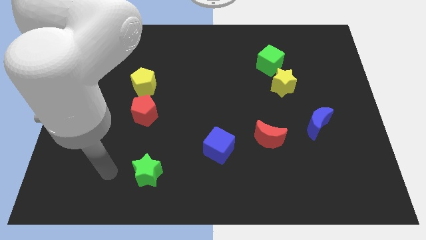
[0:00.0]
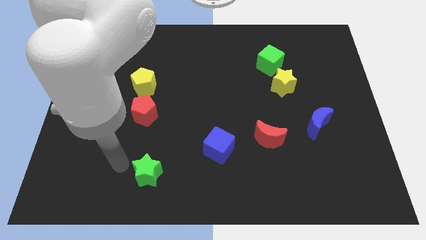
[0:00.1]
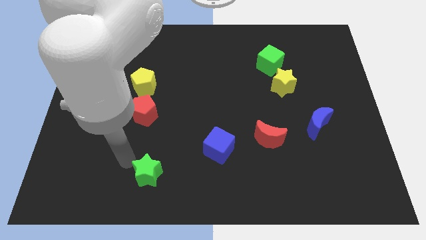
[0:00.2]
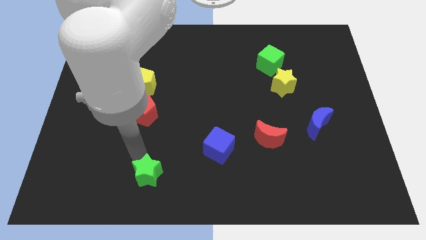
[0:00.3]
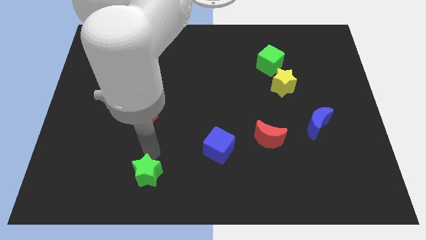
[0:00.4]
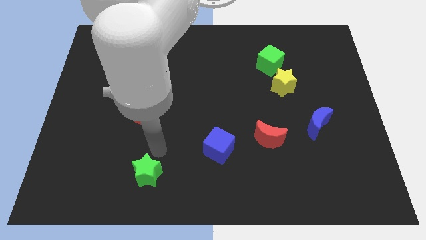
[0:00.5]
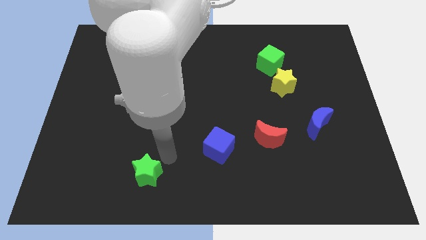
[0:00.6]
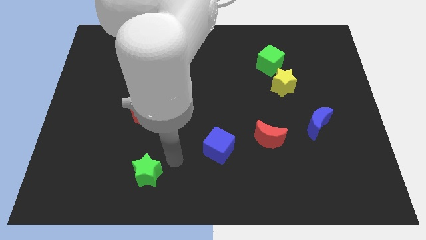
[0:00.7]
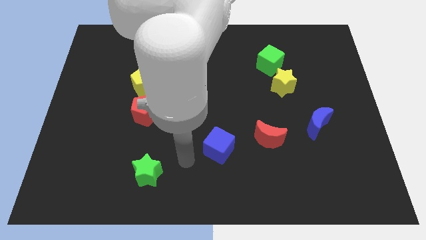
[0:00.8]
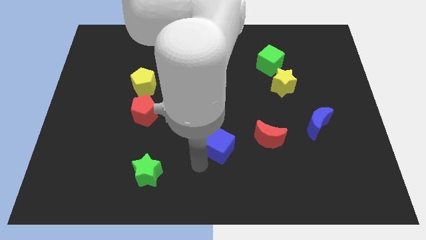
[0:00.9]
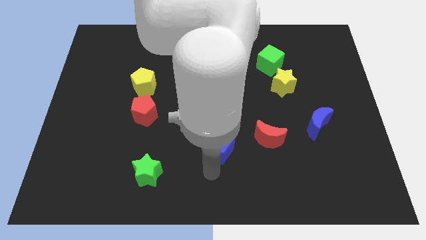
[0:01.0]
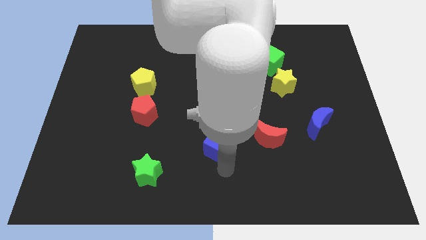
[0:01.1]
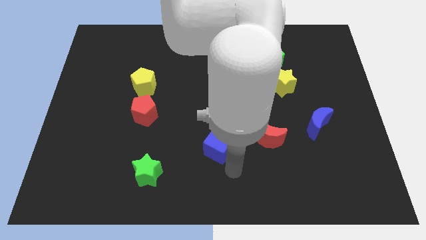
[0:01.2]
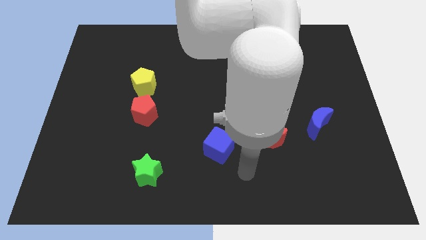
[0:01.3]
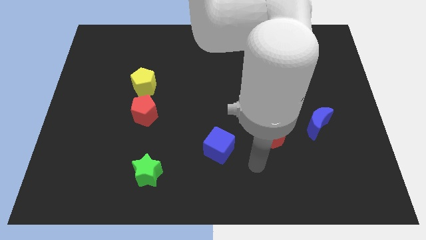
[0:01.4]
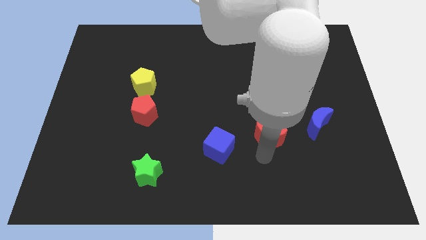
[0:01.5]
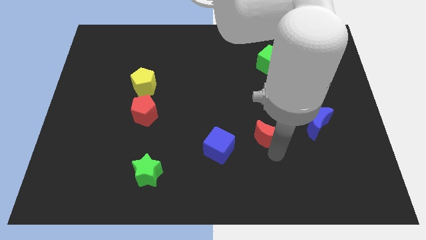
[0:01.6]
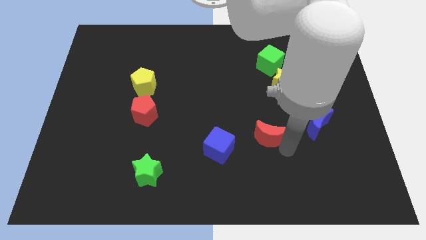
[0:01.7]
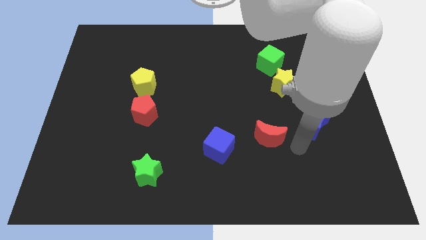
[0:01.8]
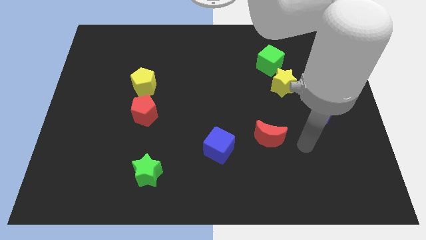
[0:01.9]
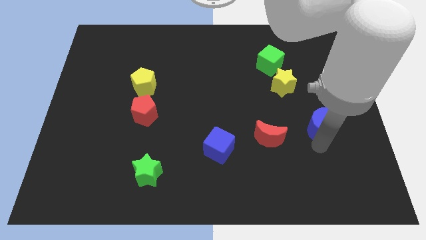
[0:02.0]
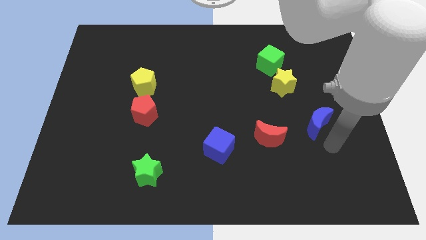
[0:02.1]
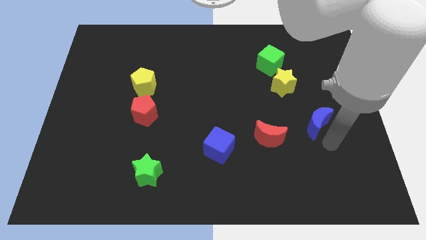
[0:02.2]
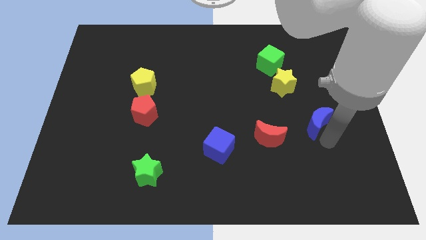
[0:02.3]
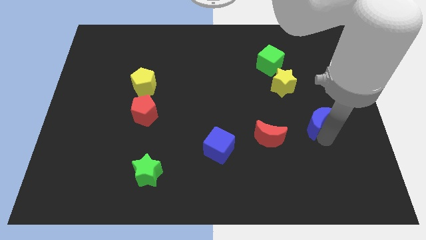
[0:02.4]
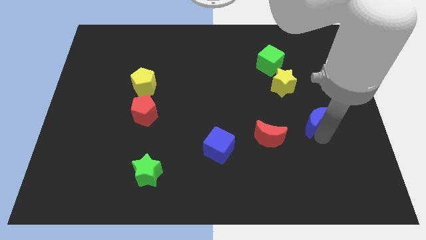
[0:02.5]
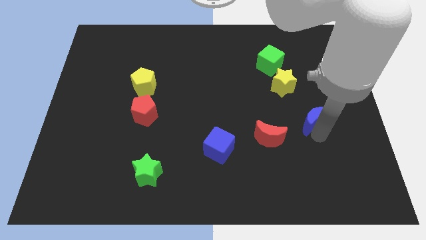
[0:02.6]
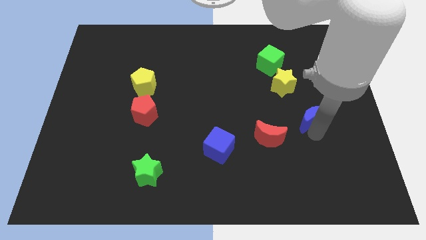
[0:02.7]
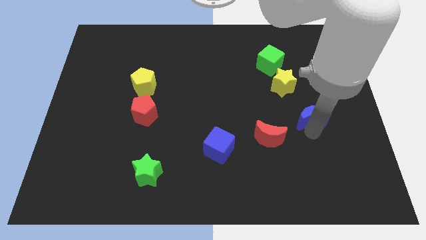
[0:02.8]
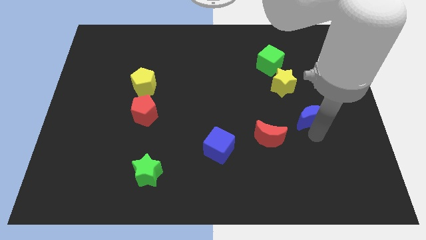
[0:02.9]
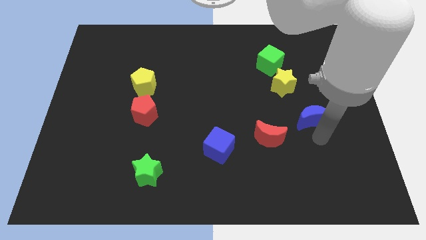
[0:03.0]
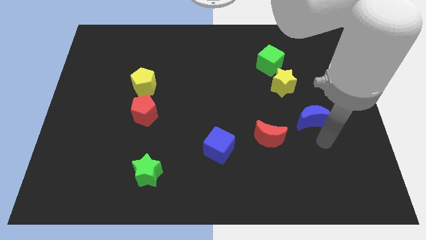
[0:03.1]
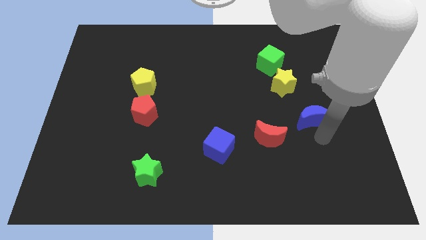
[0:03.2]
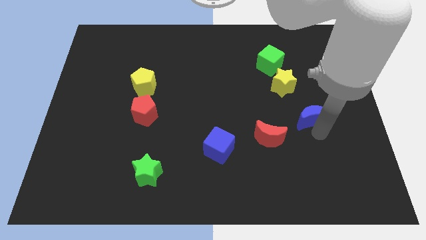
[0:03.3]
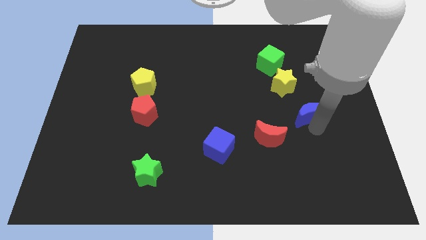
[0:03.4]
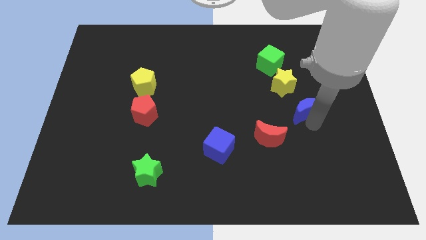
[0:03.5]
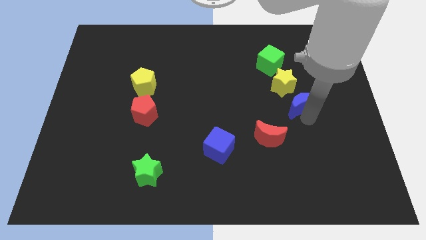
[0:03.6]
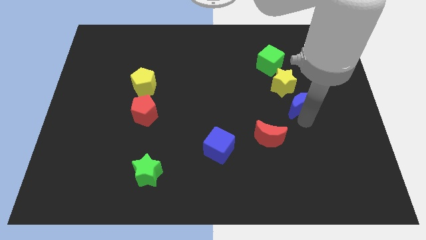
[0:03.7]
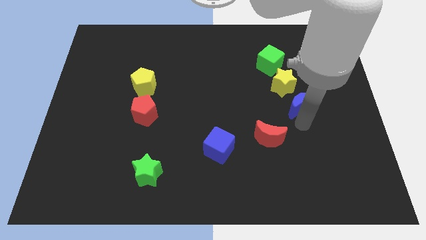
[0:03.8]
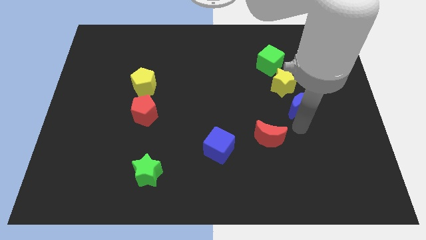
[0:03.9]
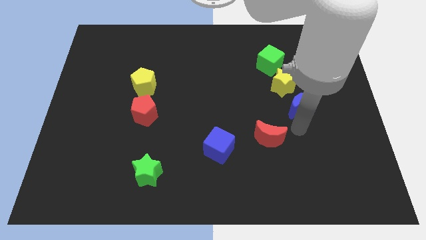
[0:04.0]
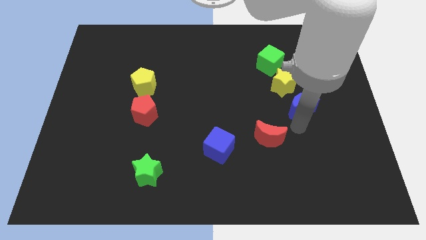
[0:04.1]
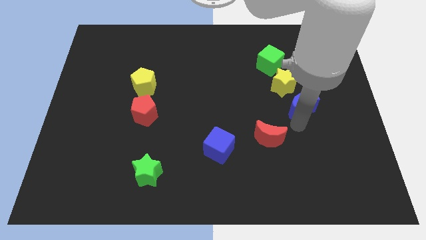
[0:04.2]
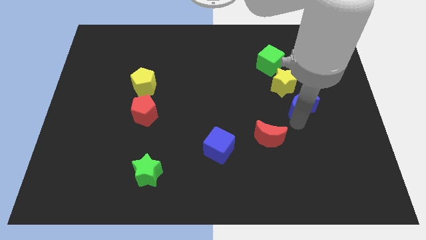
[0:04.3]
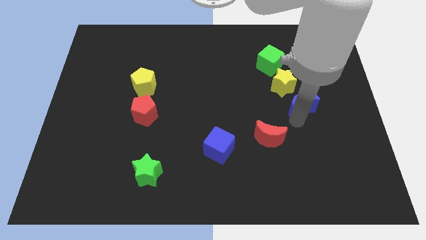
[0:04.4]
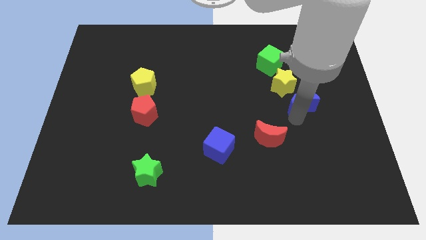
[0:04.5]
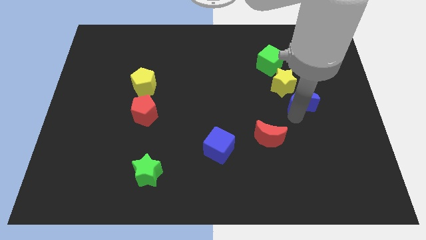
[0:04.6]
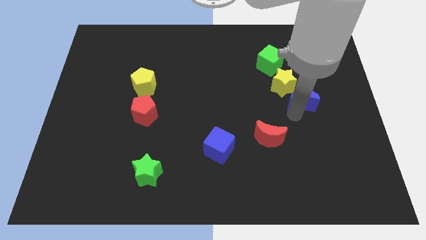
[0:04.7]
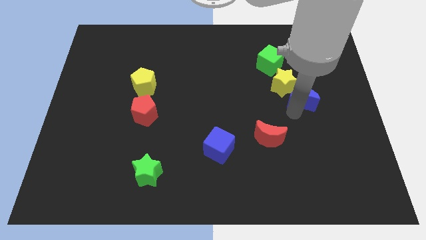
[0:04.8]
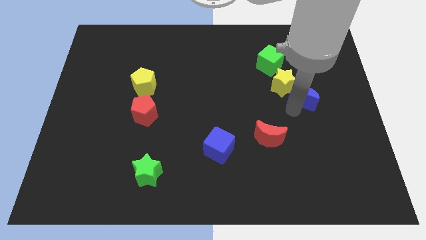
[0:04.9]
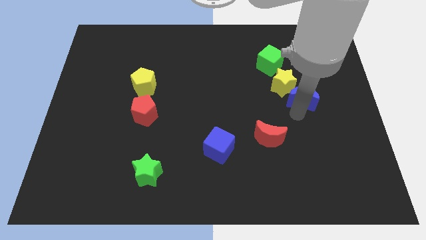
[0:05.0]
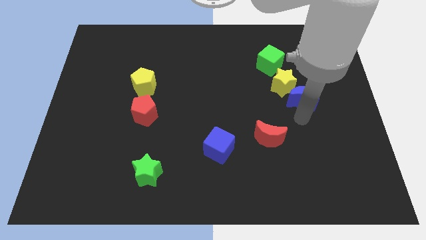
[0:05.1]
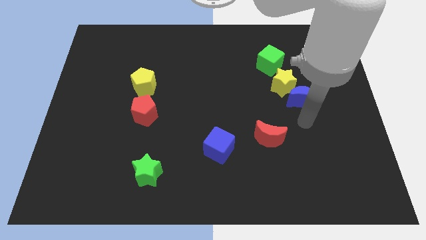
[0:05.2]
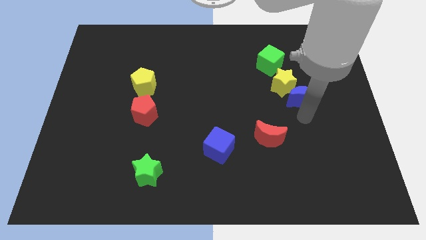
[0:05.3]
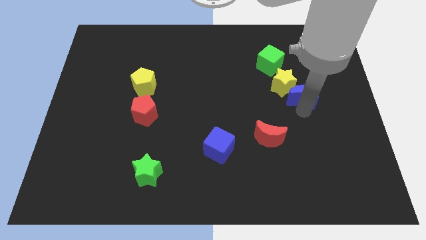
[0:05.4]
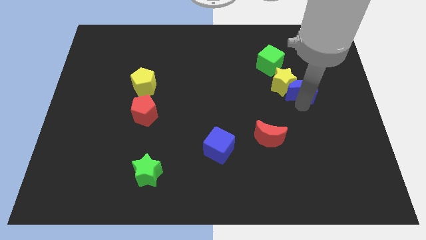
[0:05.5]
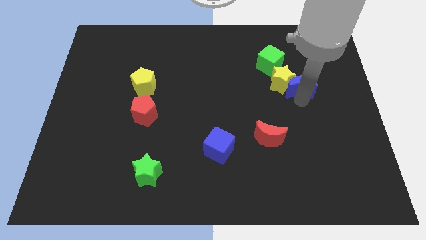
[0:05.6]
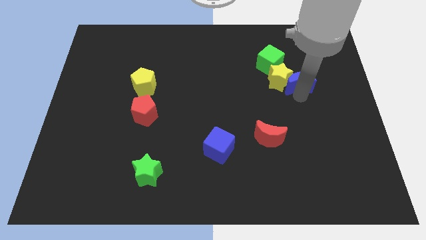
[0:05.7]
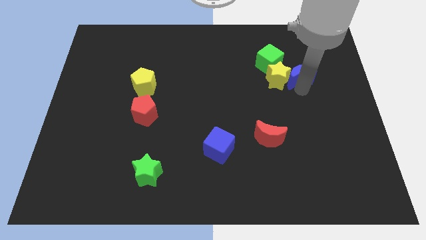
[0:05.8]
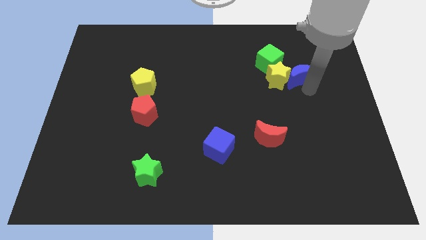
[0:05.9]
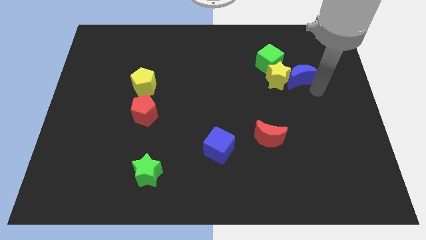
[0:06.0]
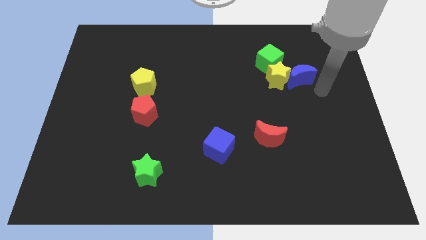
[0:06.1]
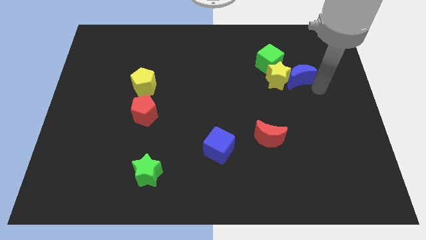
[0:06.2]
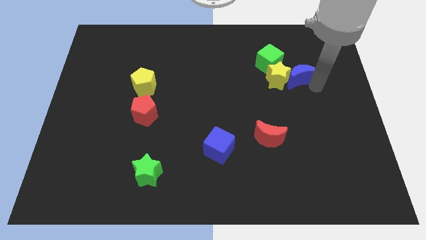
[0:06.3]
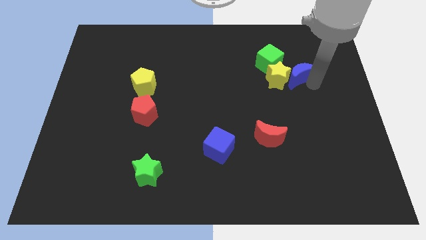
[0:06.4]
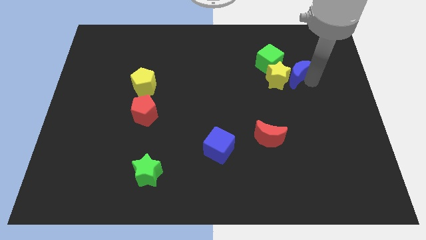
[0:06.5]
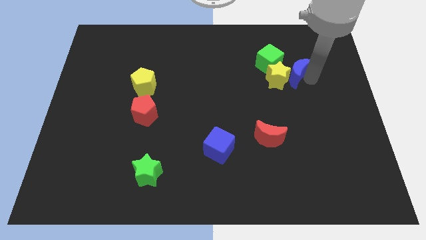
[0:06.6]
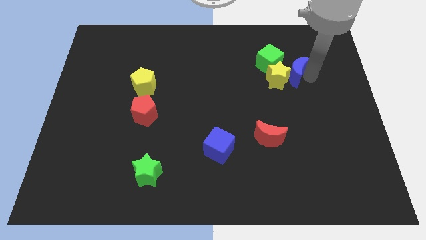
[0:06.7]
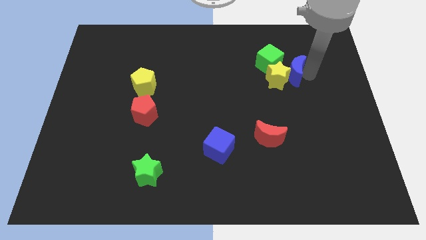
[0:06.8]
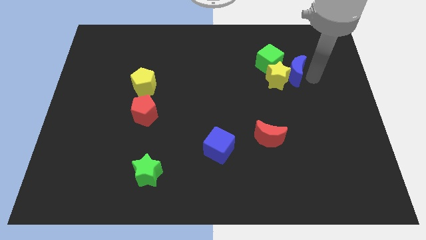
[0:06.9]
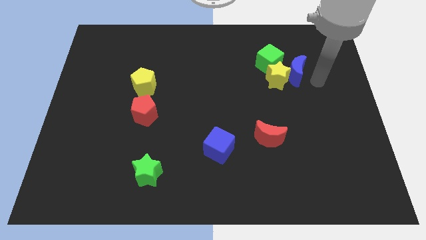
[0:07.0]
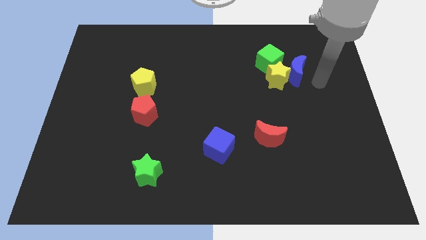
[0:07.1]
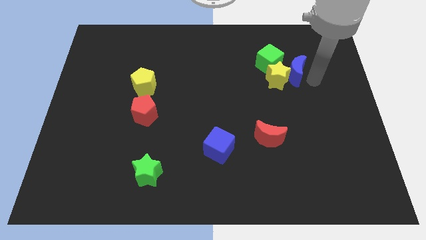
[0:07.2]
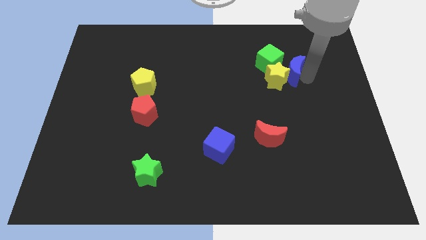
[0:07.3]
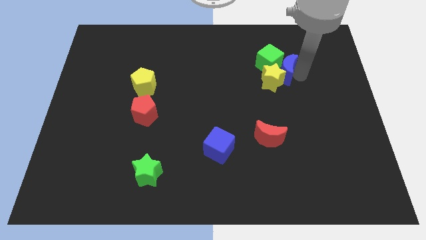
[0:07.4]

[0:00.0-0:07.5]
slide the blue moon close to the green cube

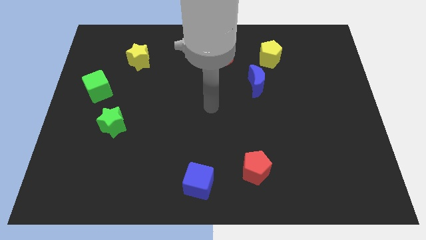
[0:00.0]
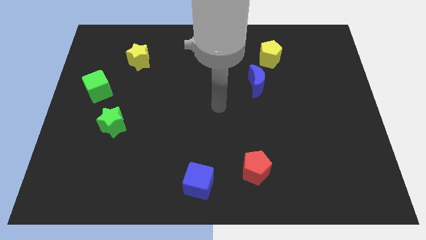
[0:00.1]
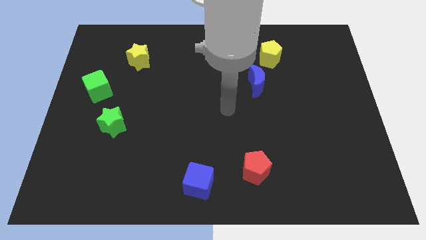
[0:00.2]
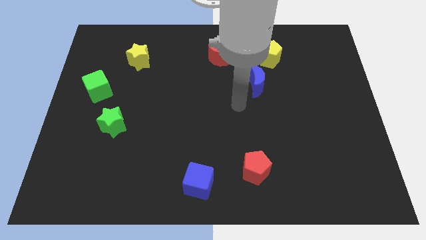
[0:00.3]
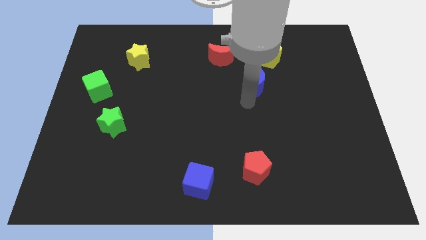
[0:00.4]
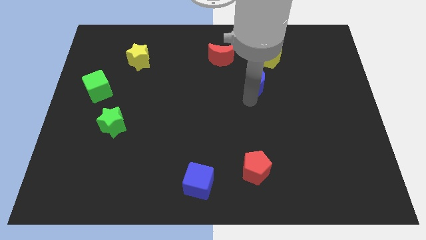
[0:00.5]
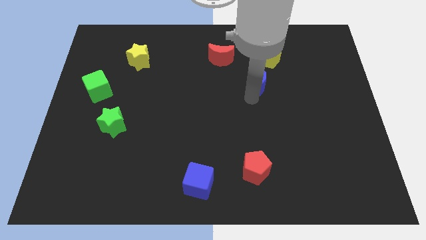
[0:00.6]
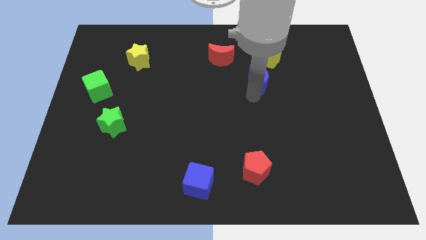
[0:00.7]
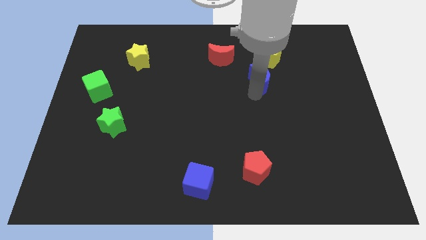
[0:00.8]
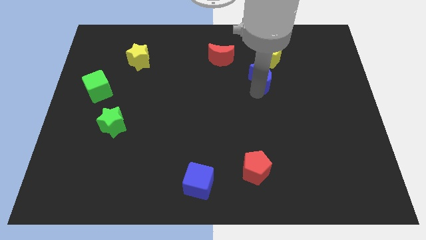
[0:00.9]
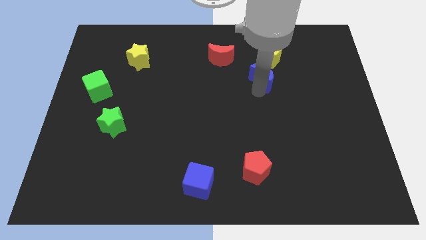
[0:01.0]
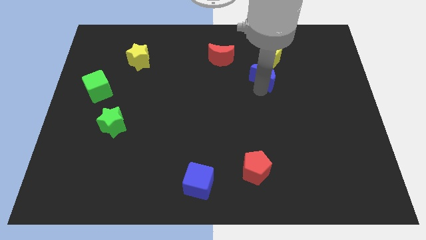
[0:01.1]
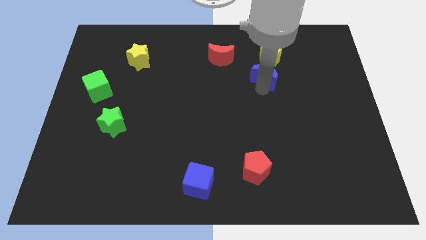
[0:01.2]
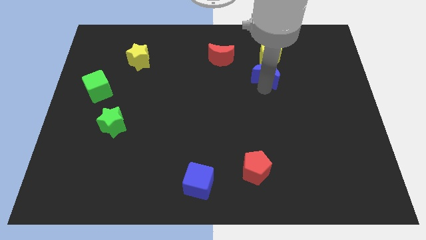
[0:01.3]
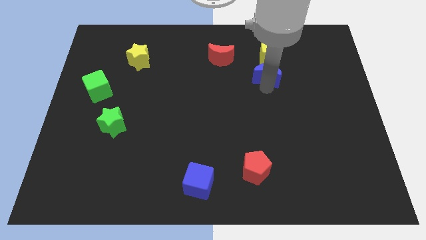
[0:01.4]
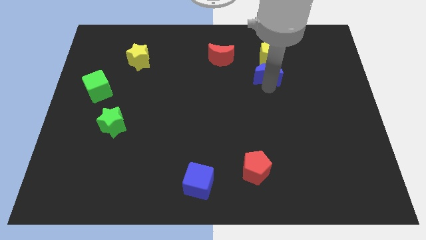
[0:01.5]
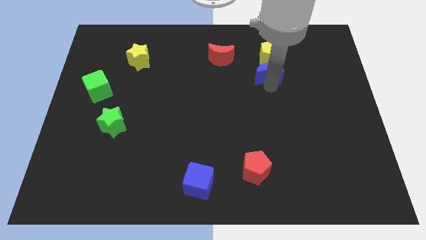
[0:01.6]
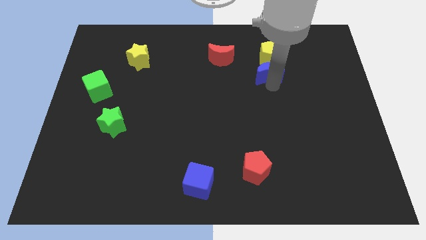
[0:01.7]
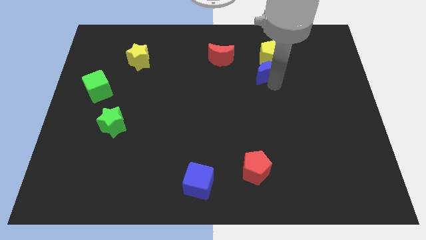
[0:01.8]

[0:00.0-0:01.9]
put the blue moon to the yellow pentagon
